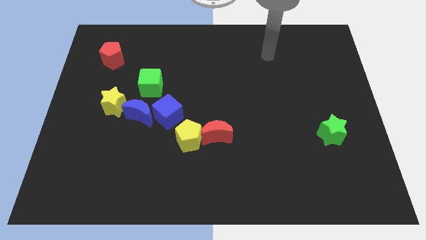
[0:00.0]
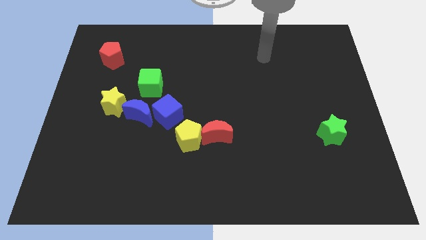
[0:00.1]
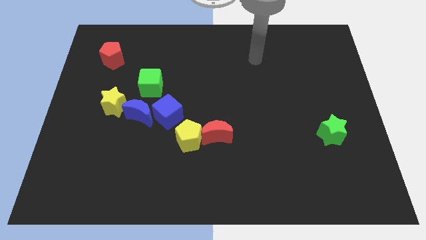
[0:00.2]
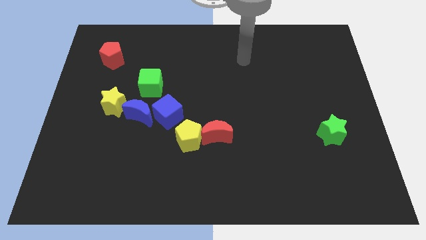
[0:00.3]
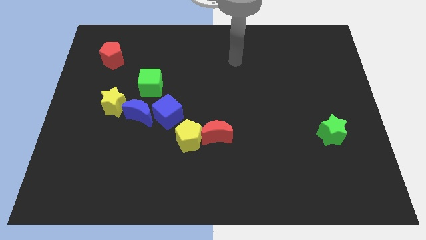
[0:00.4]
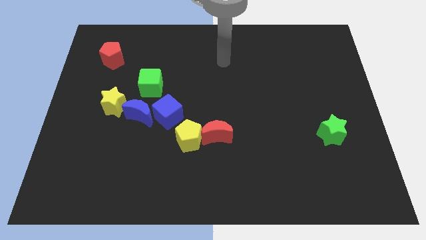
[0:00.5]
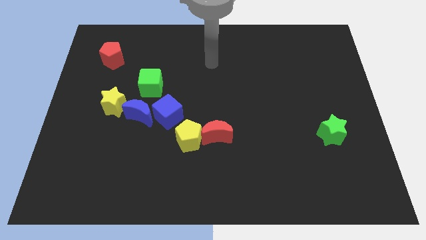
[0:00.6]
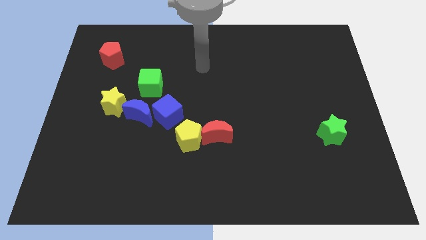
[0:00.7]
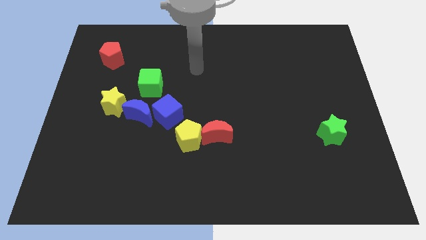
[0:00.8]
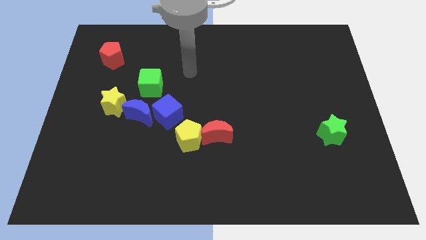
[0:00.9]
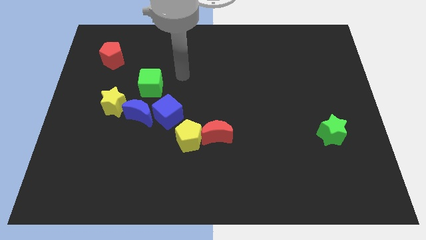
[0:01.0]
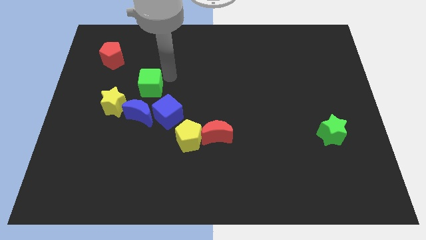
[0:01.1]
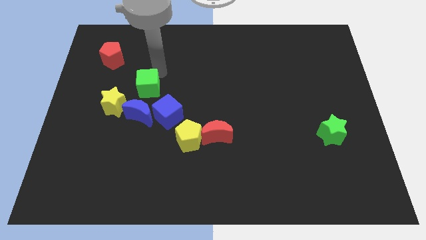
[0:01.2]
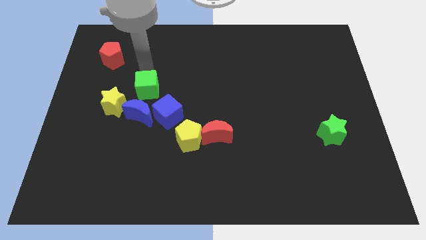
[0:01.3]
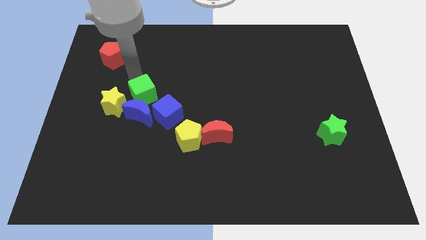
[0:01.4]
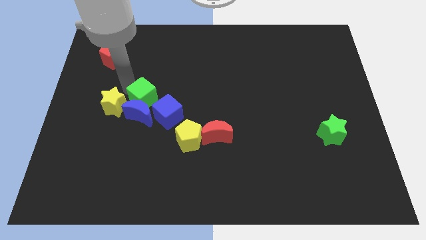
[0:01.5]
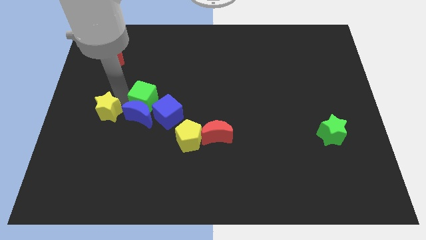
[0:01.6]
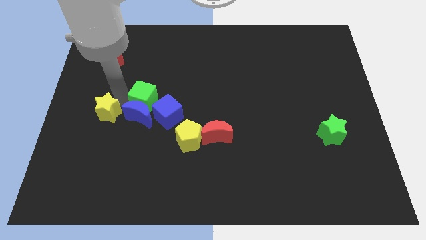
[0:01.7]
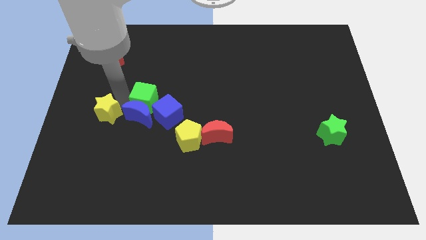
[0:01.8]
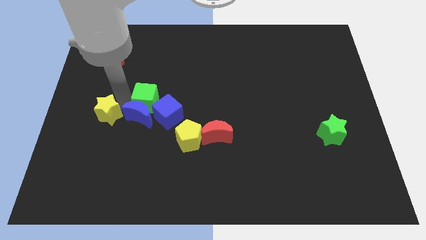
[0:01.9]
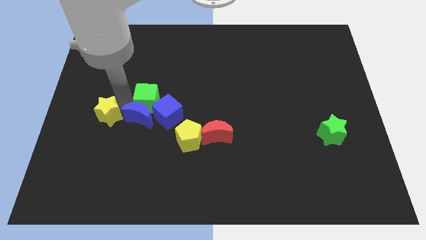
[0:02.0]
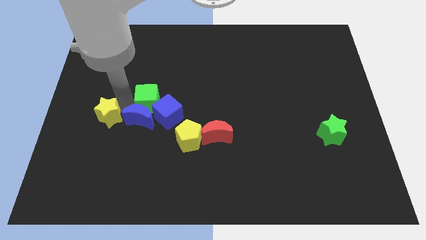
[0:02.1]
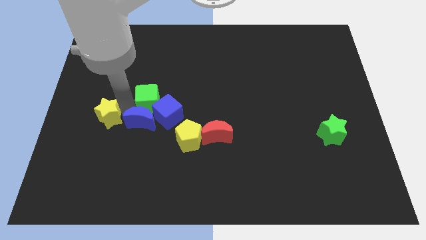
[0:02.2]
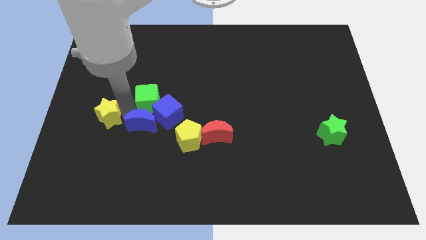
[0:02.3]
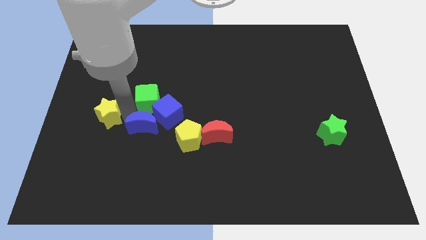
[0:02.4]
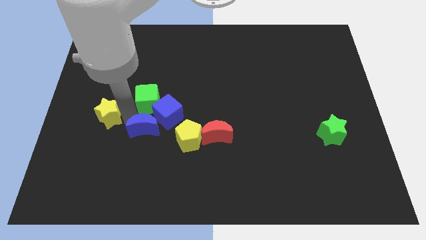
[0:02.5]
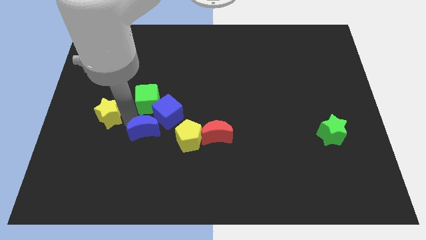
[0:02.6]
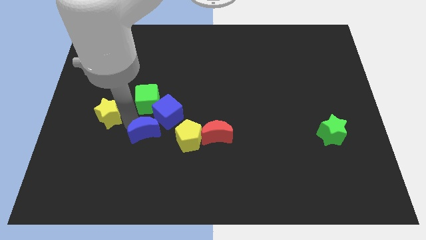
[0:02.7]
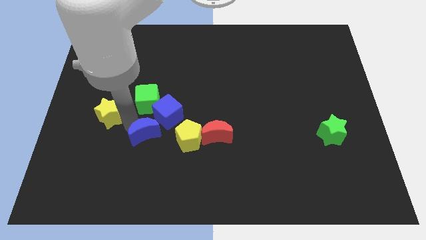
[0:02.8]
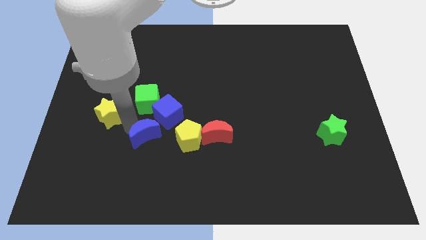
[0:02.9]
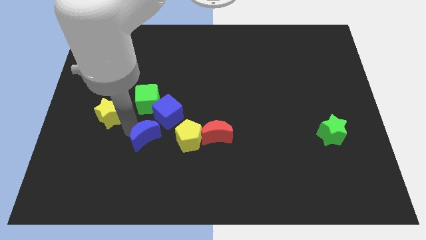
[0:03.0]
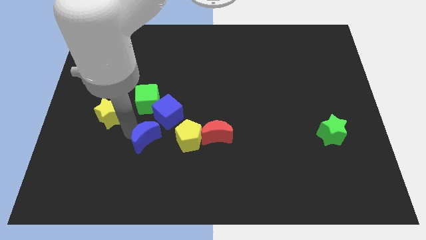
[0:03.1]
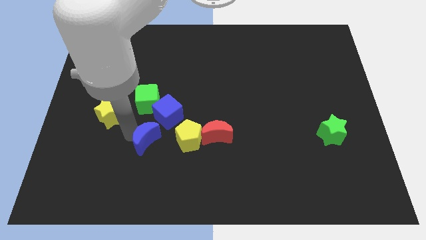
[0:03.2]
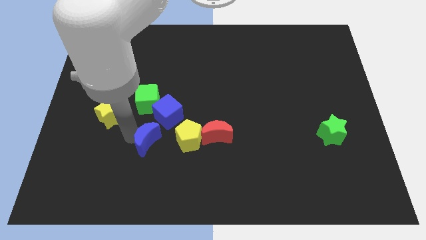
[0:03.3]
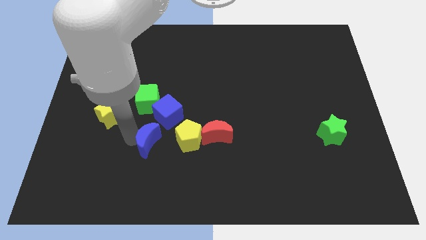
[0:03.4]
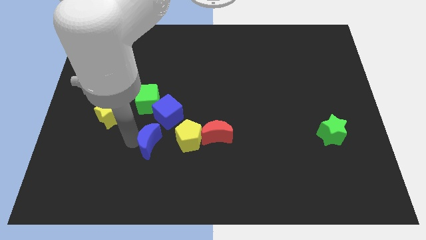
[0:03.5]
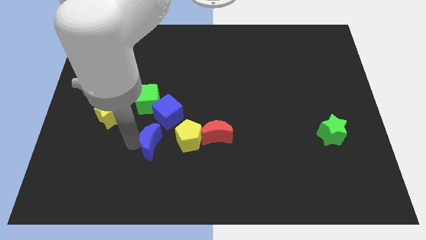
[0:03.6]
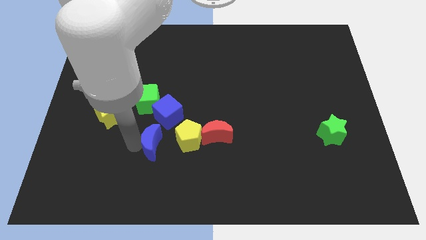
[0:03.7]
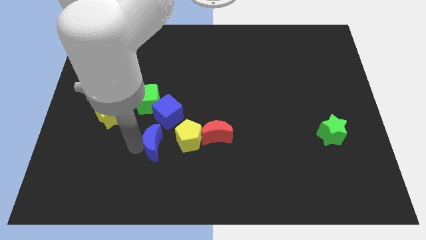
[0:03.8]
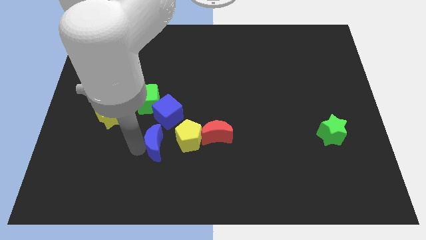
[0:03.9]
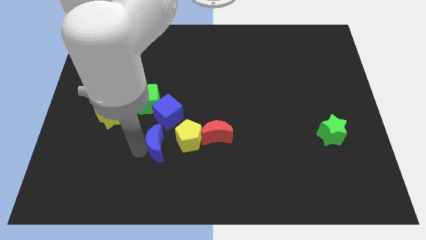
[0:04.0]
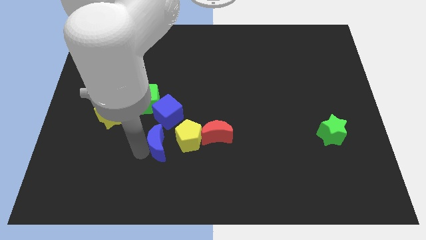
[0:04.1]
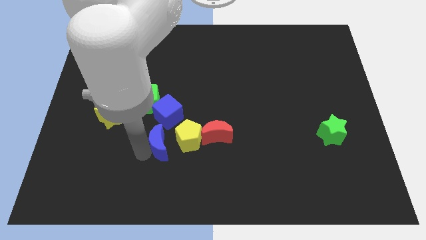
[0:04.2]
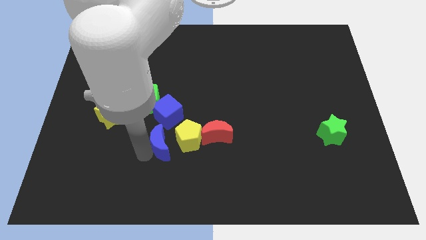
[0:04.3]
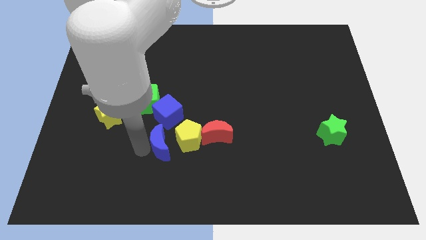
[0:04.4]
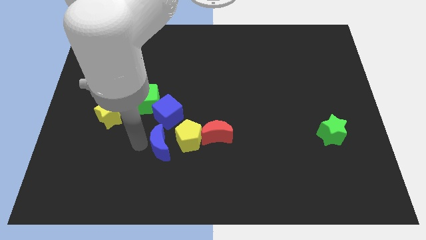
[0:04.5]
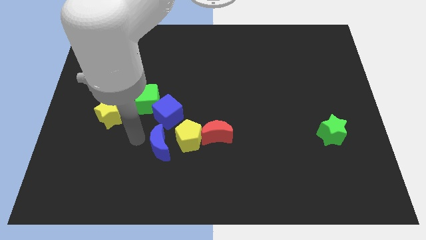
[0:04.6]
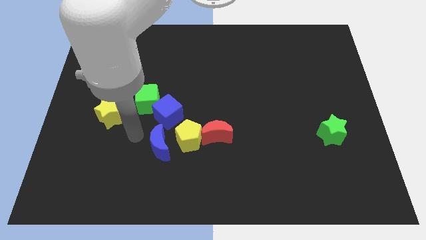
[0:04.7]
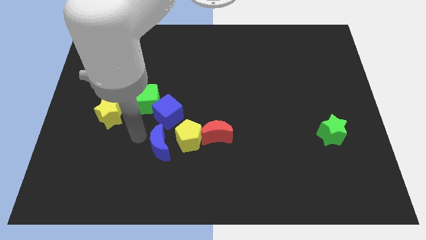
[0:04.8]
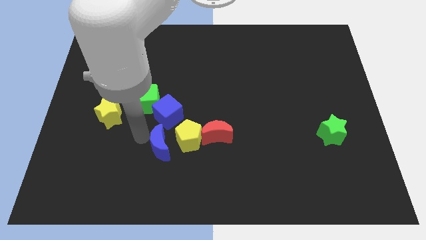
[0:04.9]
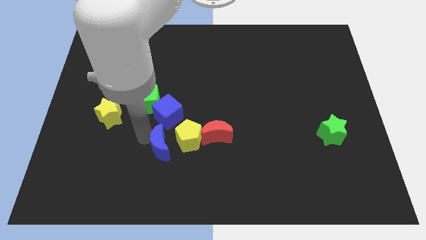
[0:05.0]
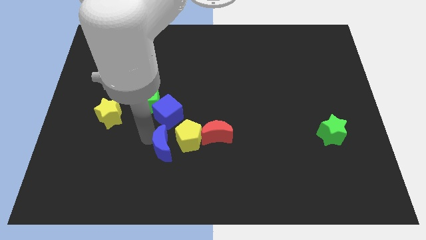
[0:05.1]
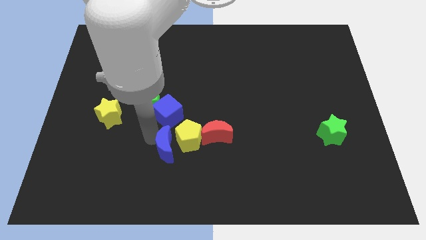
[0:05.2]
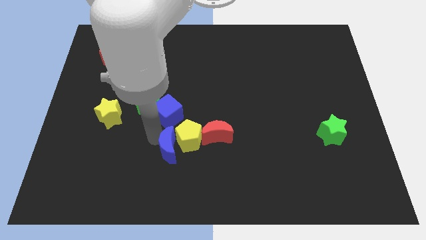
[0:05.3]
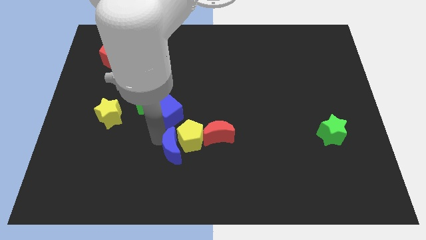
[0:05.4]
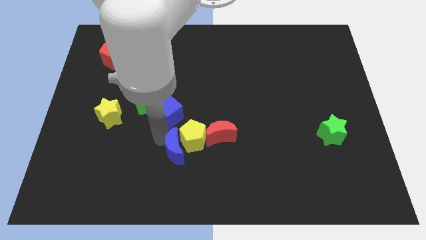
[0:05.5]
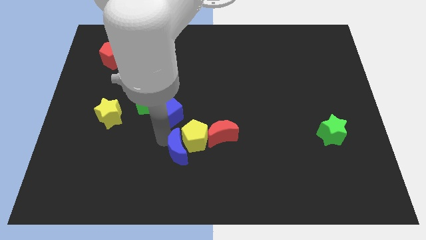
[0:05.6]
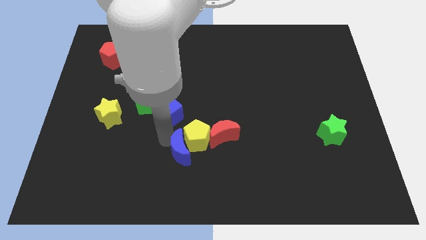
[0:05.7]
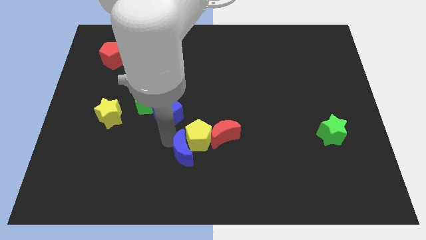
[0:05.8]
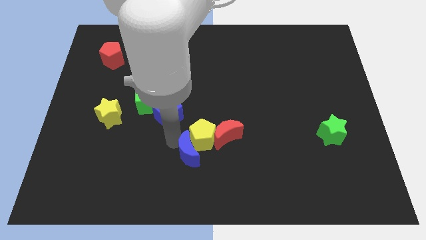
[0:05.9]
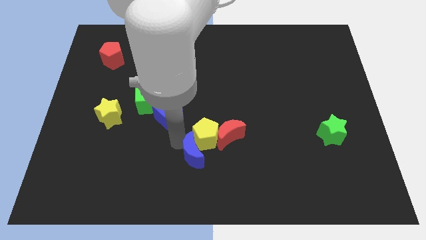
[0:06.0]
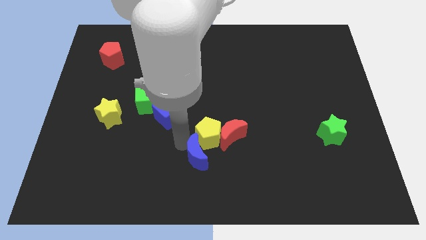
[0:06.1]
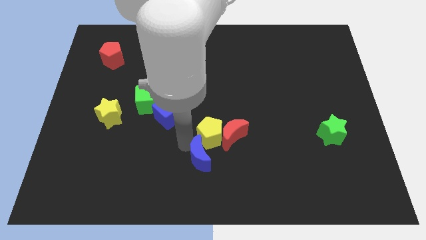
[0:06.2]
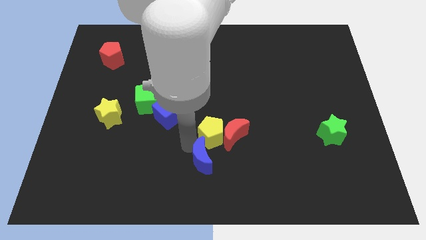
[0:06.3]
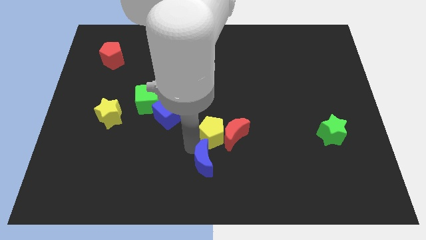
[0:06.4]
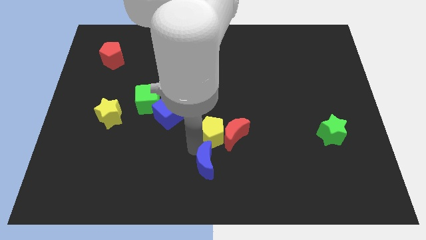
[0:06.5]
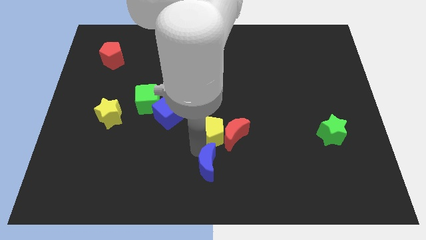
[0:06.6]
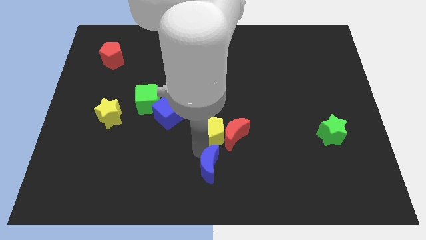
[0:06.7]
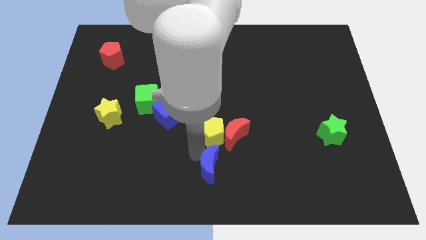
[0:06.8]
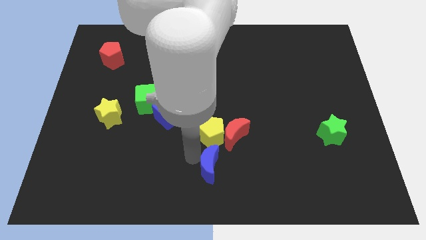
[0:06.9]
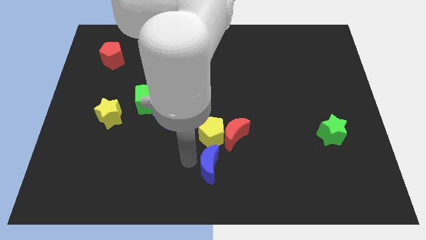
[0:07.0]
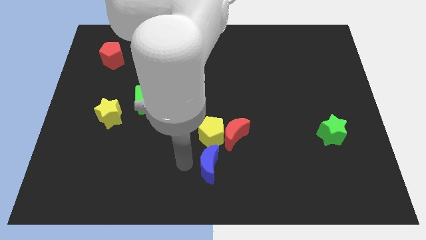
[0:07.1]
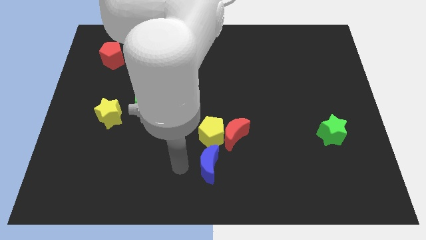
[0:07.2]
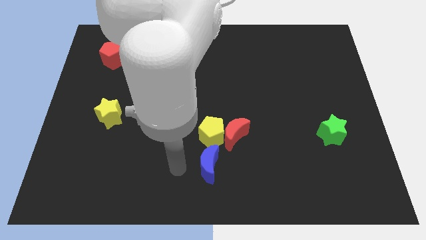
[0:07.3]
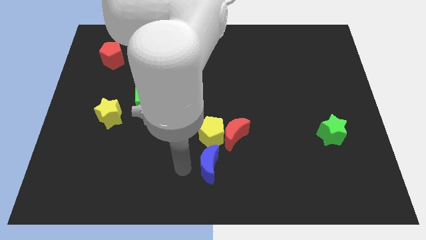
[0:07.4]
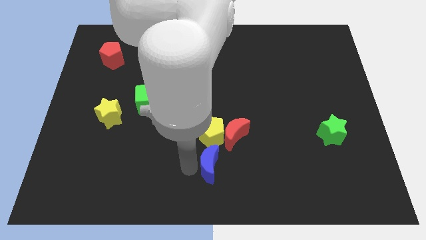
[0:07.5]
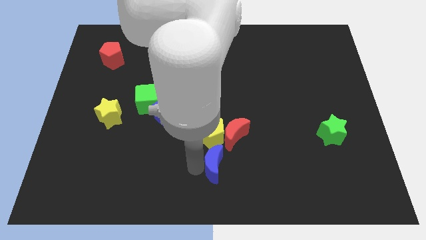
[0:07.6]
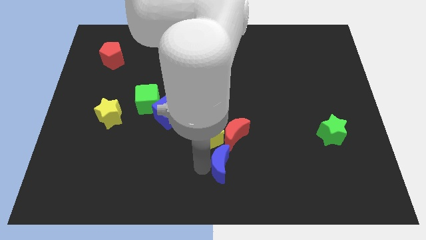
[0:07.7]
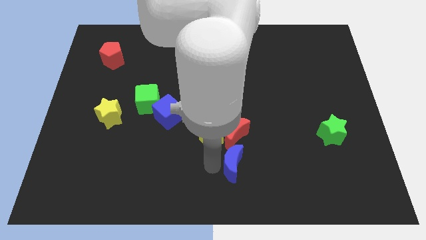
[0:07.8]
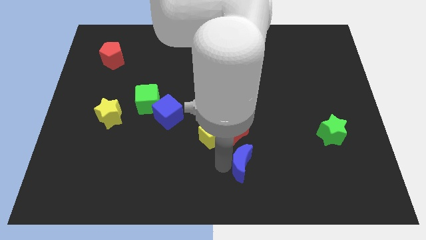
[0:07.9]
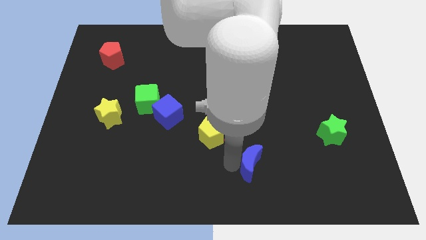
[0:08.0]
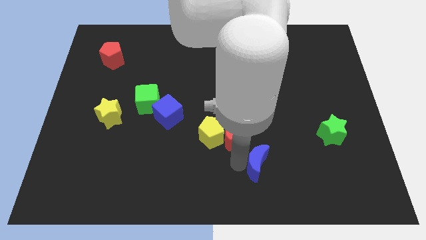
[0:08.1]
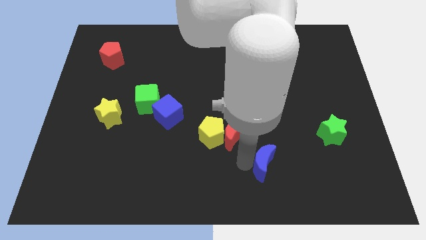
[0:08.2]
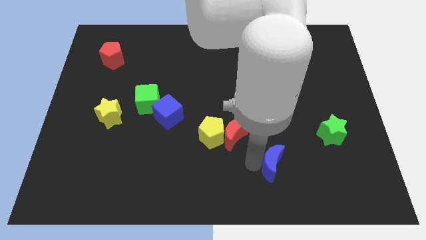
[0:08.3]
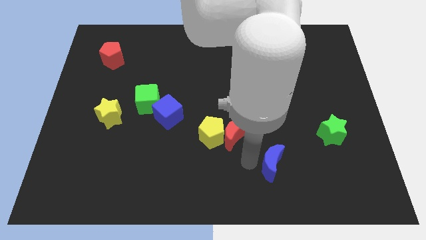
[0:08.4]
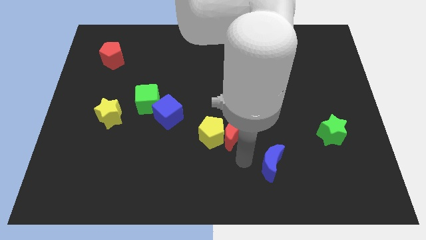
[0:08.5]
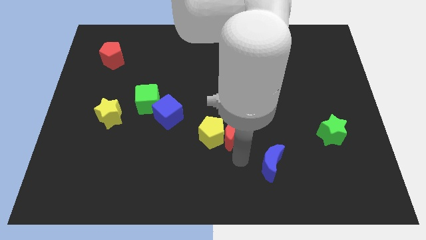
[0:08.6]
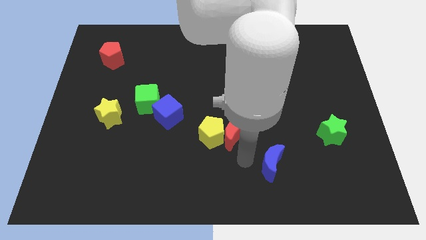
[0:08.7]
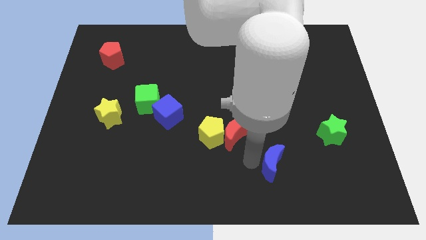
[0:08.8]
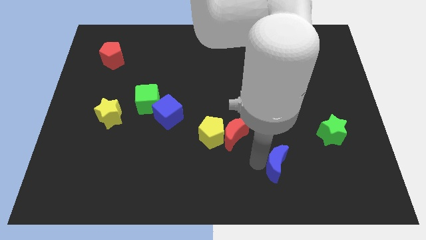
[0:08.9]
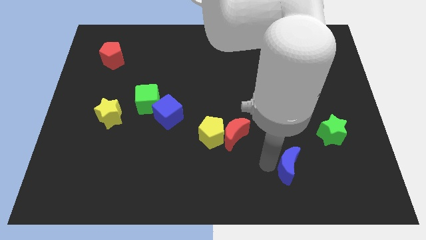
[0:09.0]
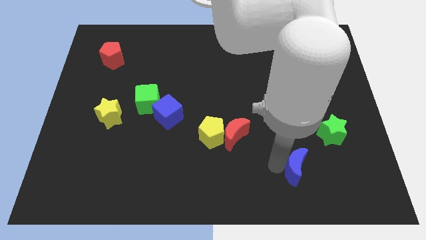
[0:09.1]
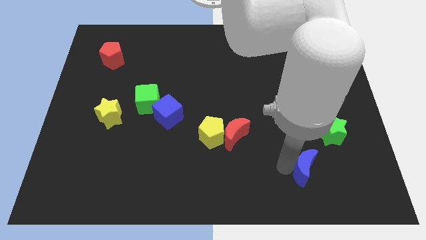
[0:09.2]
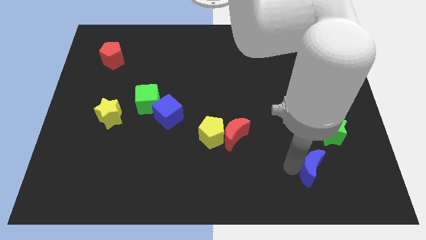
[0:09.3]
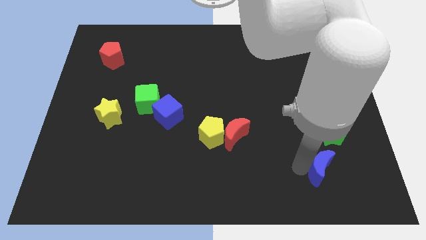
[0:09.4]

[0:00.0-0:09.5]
push the blue moon to the bottom side of the green star
